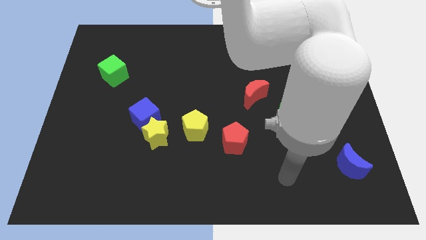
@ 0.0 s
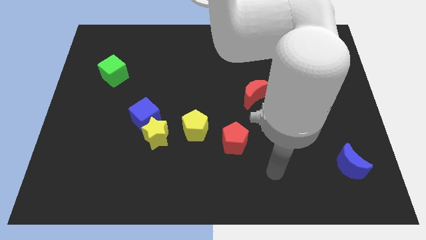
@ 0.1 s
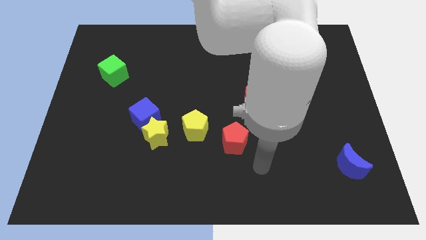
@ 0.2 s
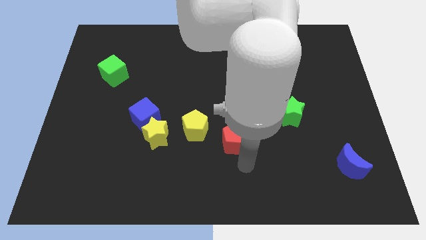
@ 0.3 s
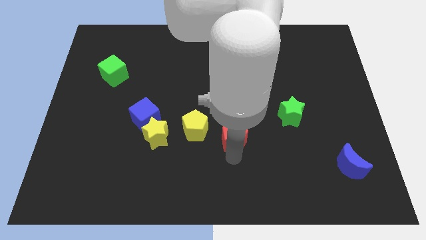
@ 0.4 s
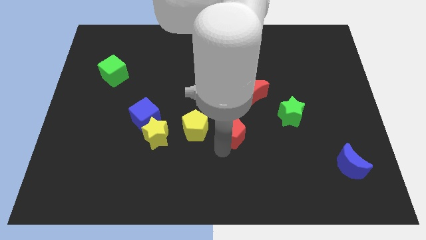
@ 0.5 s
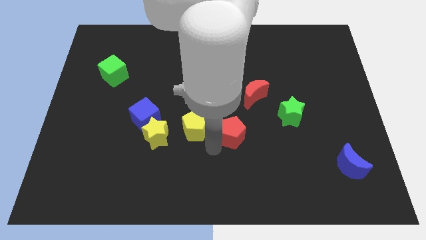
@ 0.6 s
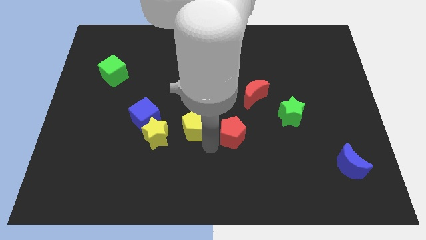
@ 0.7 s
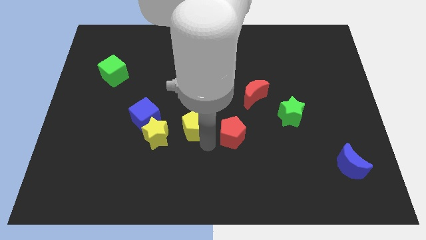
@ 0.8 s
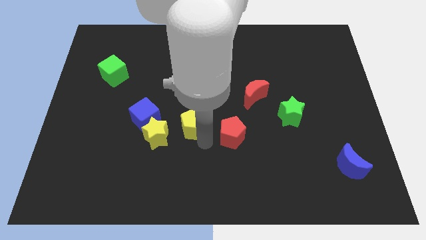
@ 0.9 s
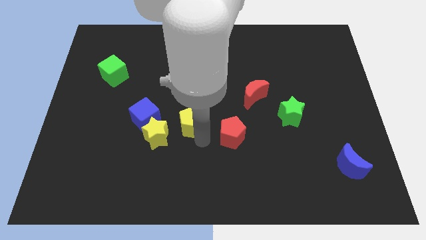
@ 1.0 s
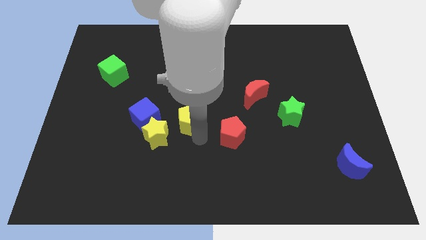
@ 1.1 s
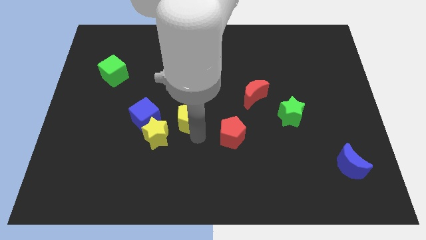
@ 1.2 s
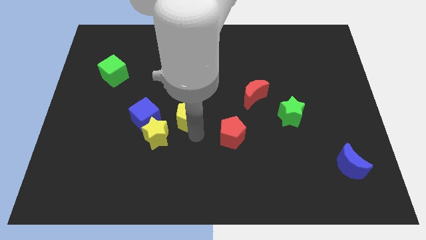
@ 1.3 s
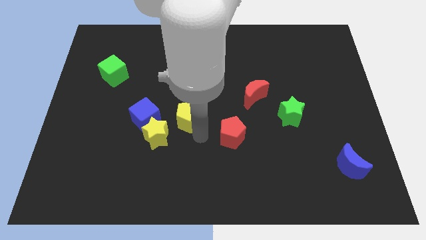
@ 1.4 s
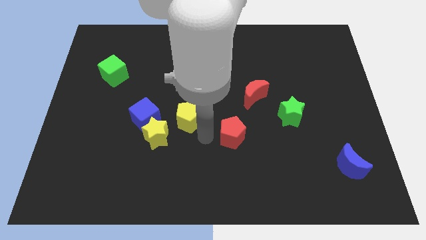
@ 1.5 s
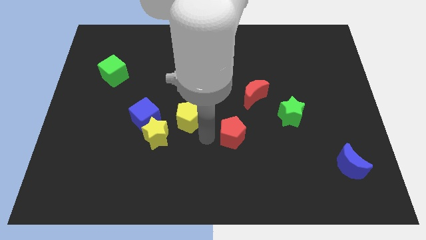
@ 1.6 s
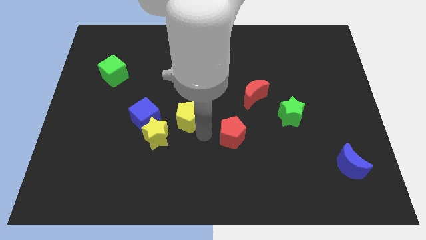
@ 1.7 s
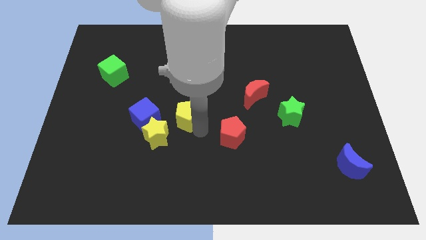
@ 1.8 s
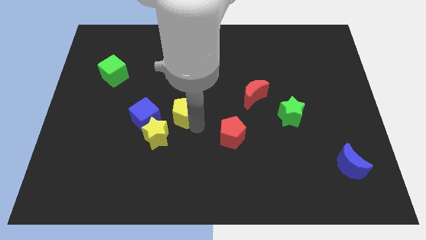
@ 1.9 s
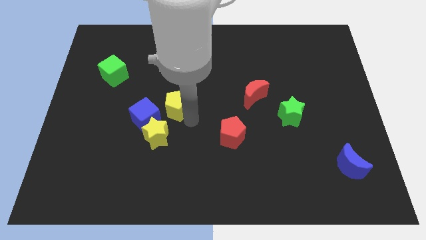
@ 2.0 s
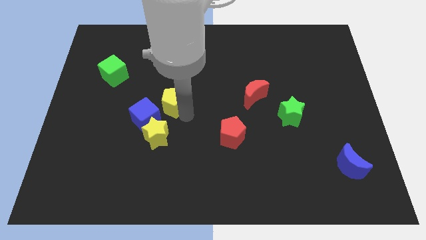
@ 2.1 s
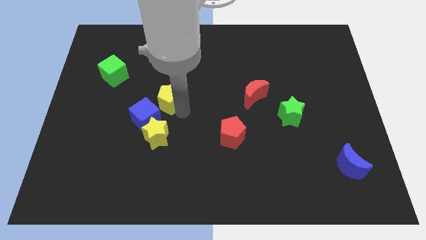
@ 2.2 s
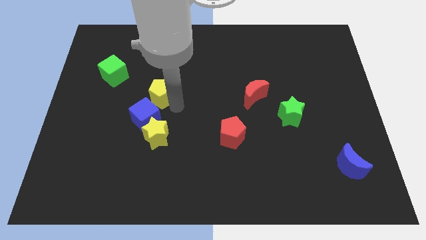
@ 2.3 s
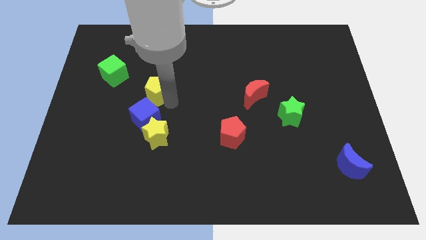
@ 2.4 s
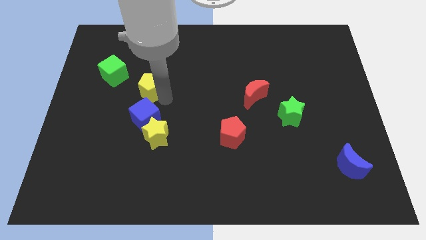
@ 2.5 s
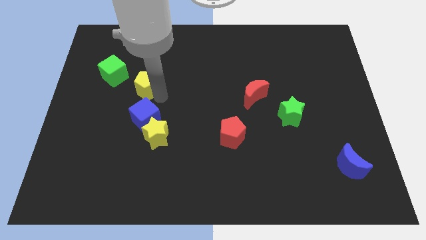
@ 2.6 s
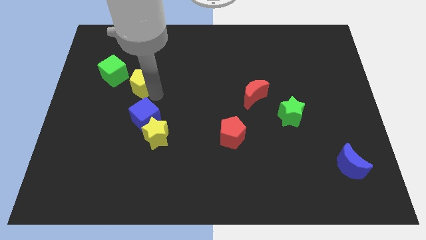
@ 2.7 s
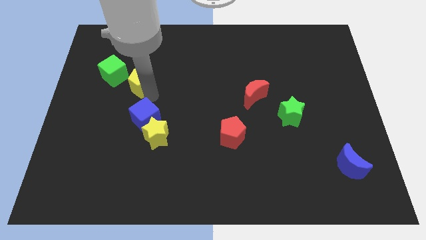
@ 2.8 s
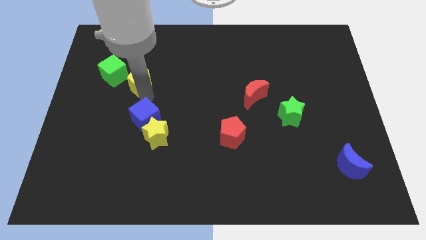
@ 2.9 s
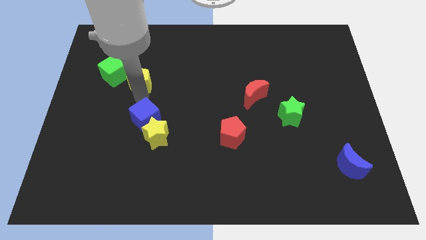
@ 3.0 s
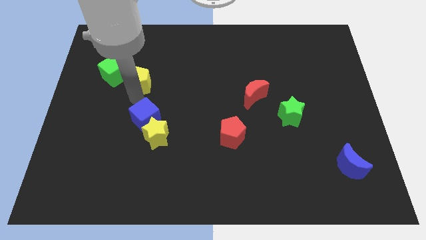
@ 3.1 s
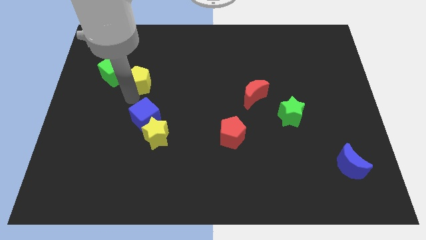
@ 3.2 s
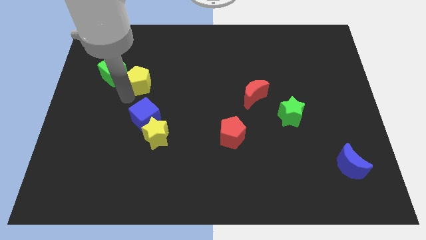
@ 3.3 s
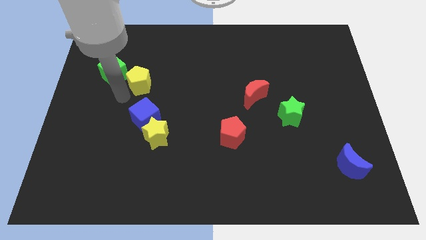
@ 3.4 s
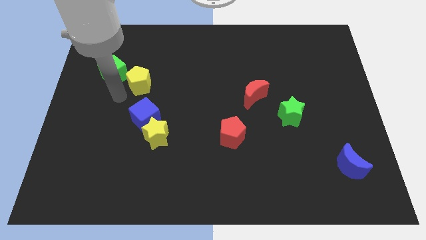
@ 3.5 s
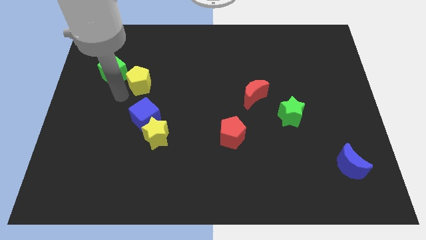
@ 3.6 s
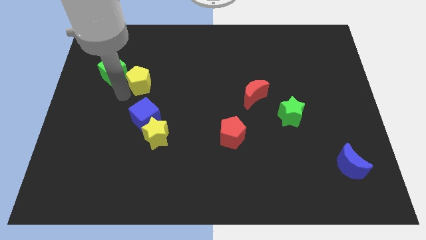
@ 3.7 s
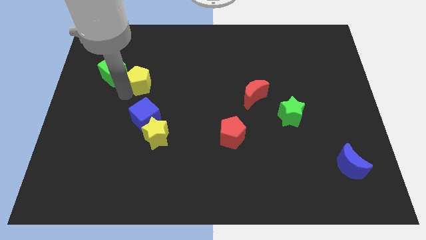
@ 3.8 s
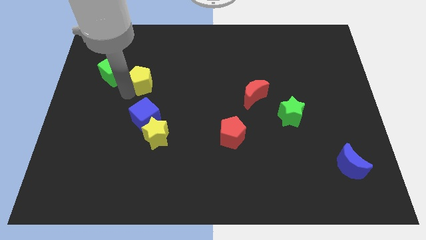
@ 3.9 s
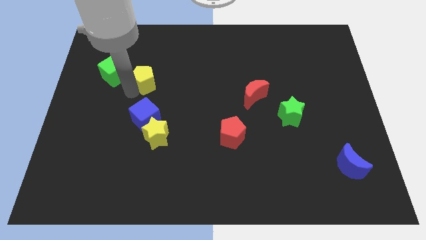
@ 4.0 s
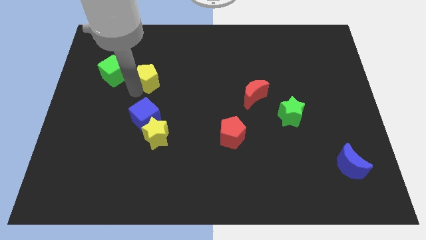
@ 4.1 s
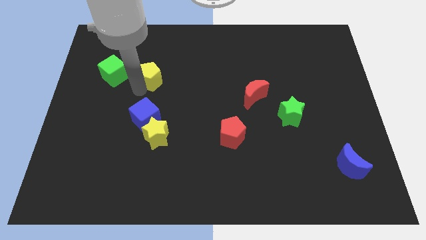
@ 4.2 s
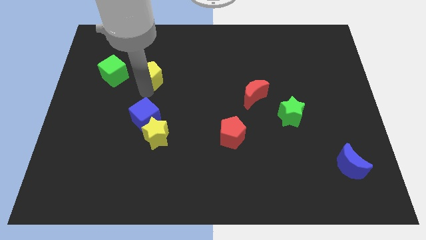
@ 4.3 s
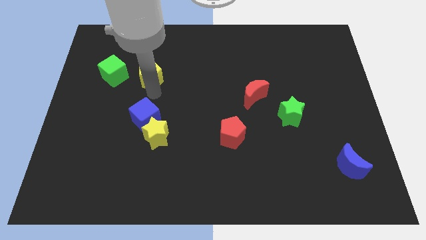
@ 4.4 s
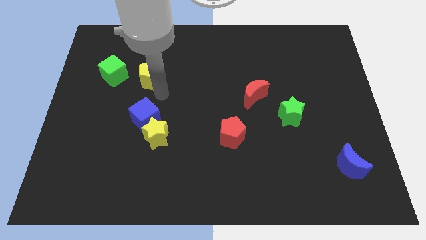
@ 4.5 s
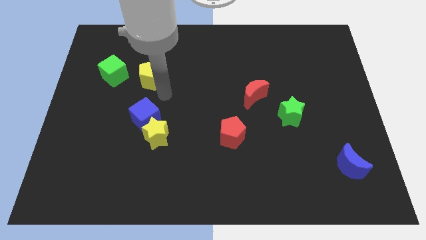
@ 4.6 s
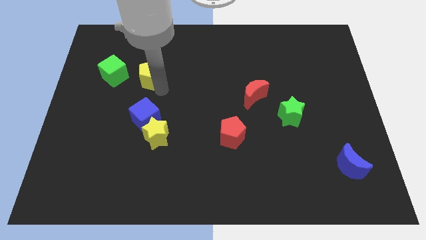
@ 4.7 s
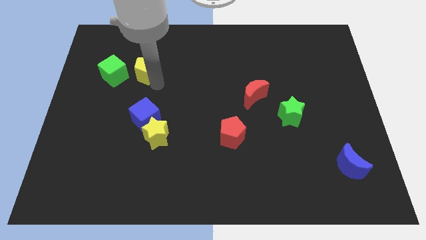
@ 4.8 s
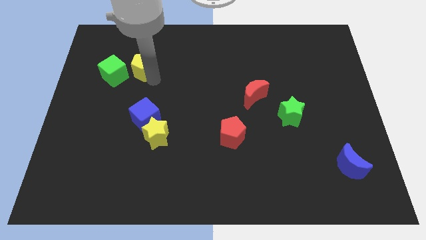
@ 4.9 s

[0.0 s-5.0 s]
move the yellow pentagon diagonally up and to the right of the green cube

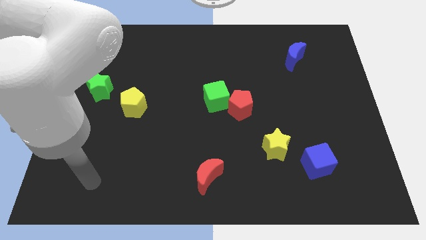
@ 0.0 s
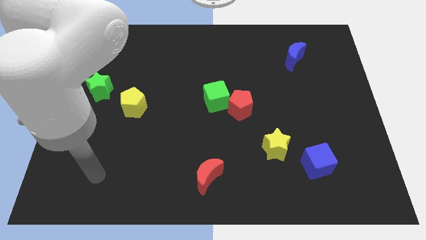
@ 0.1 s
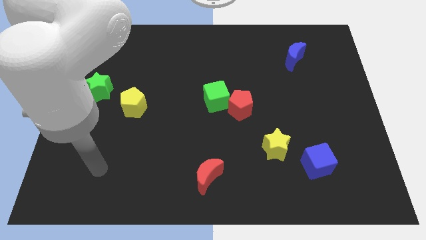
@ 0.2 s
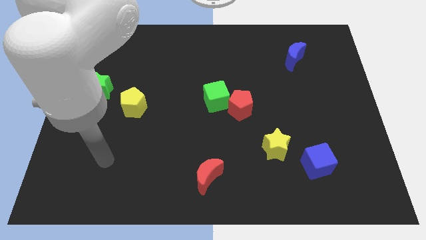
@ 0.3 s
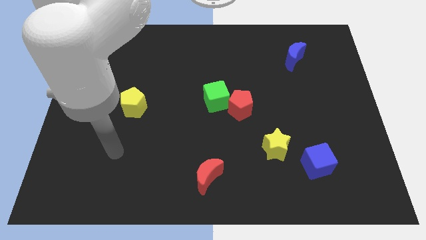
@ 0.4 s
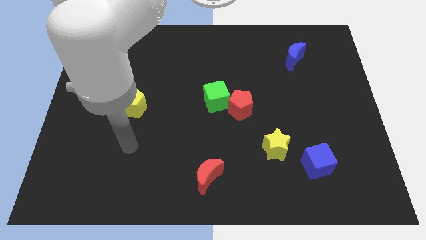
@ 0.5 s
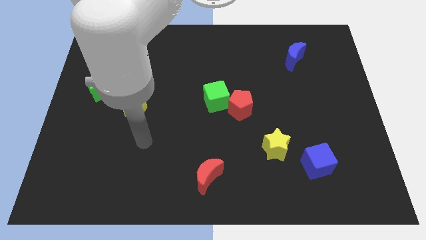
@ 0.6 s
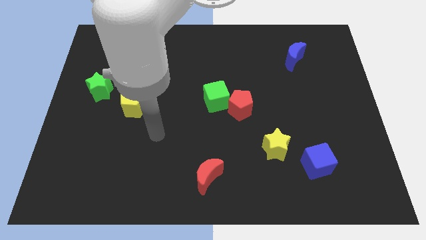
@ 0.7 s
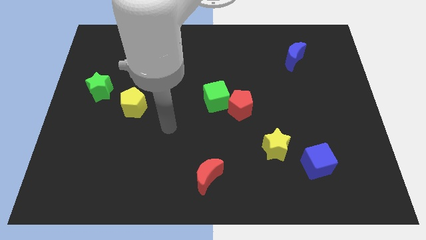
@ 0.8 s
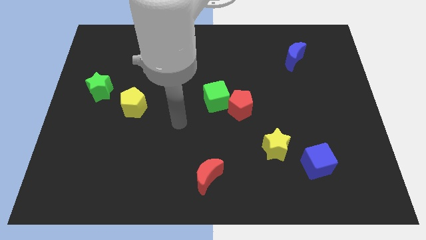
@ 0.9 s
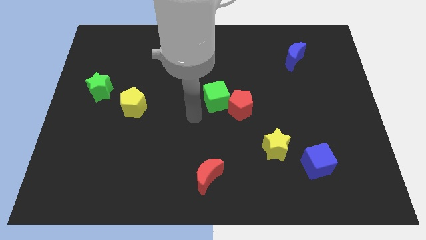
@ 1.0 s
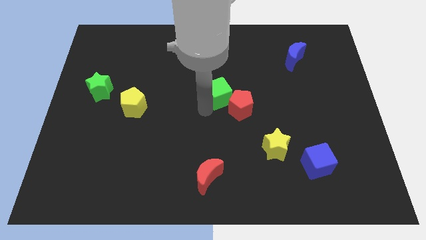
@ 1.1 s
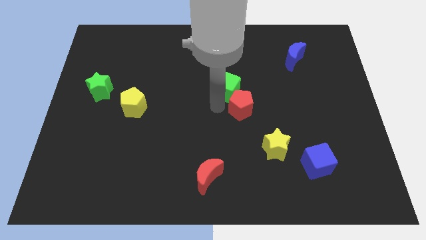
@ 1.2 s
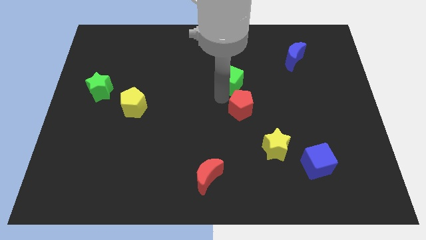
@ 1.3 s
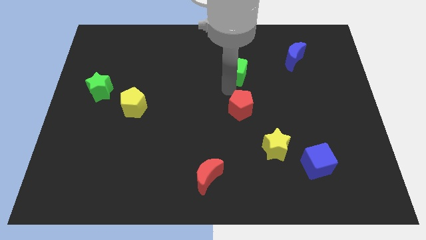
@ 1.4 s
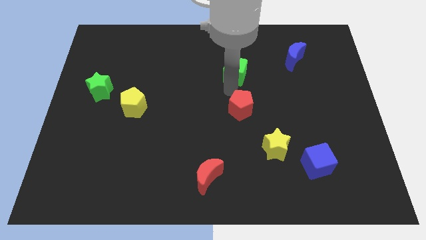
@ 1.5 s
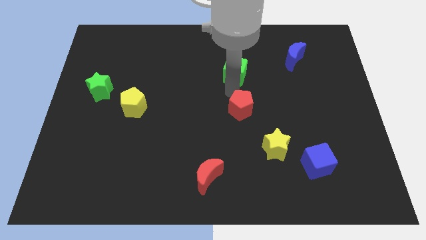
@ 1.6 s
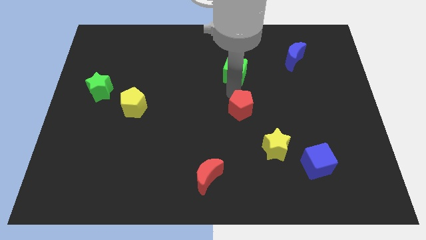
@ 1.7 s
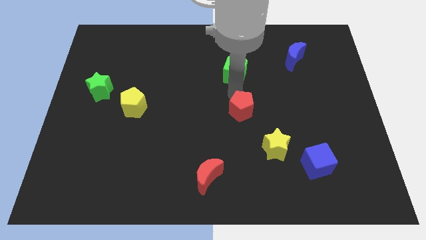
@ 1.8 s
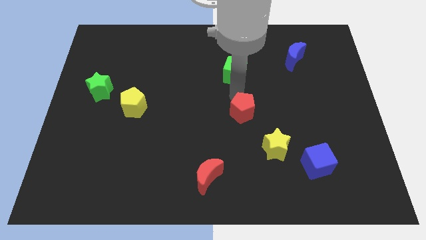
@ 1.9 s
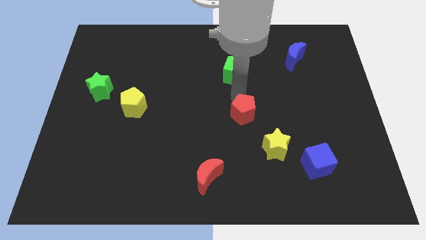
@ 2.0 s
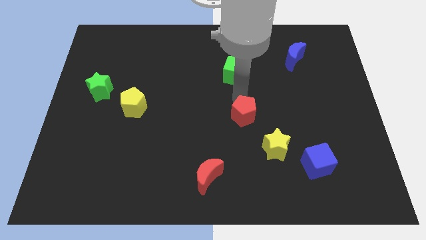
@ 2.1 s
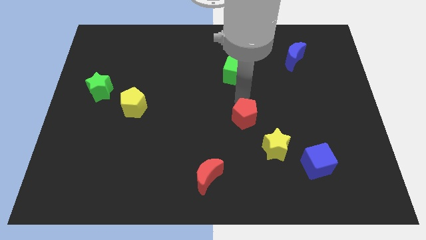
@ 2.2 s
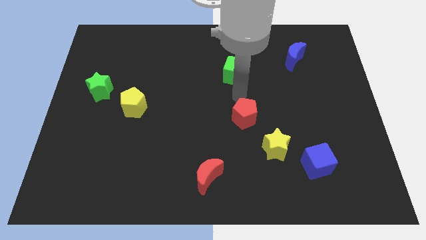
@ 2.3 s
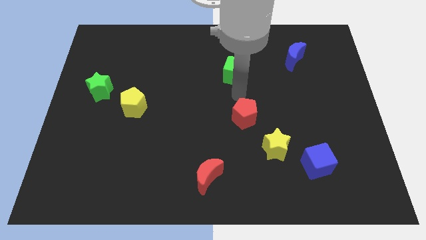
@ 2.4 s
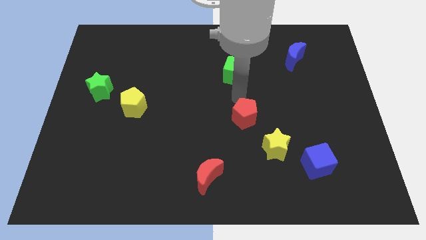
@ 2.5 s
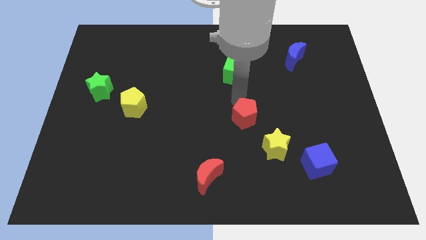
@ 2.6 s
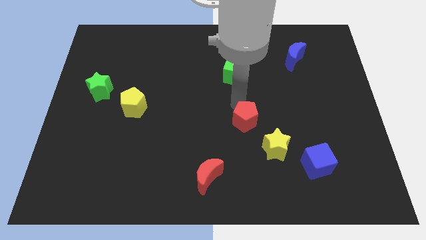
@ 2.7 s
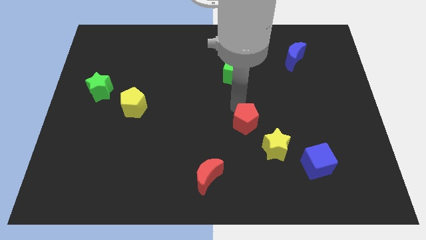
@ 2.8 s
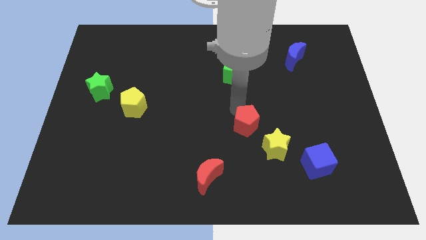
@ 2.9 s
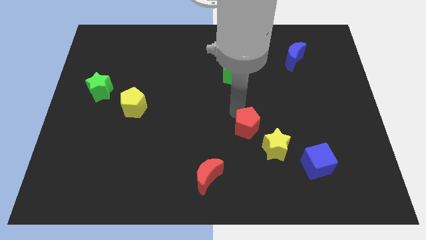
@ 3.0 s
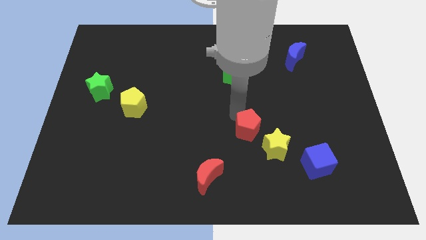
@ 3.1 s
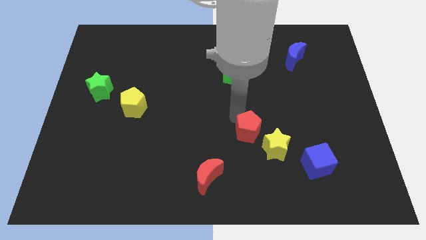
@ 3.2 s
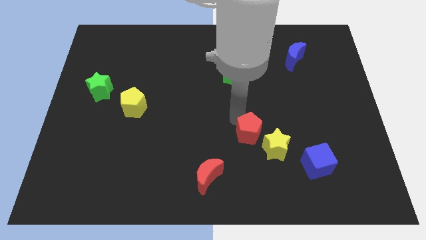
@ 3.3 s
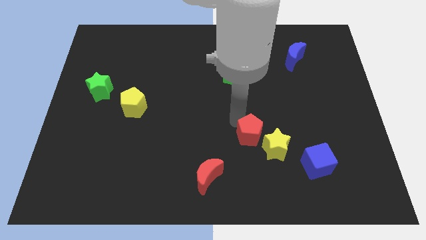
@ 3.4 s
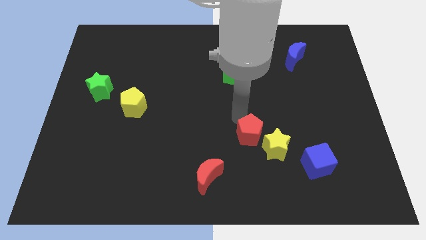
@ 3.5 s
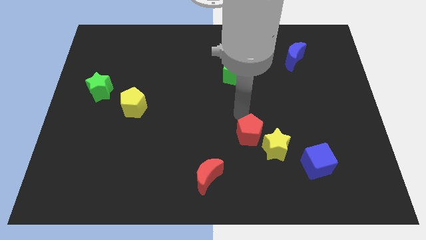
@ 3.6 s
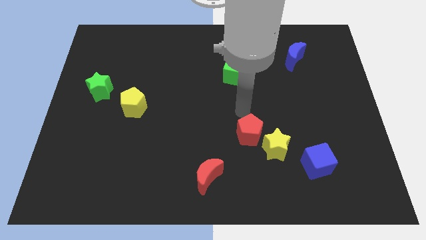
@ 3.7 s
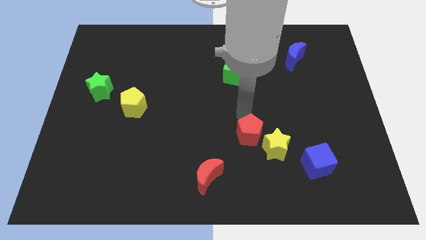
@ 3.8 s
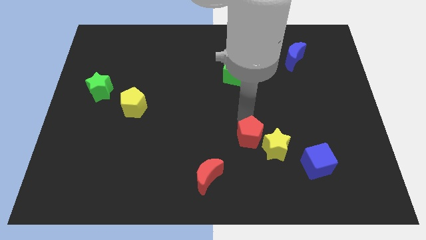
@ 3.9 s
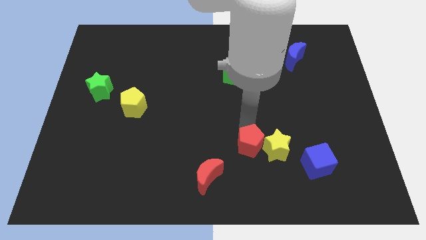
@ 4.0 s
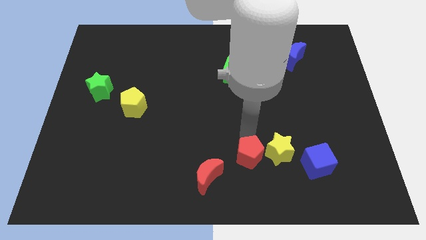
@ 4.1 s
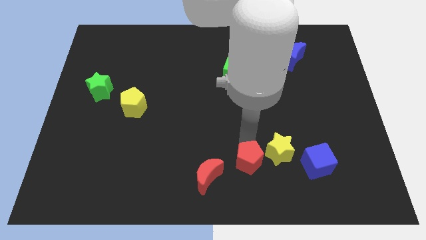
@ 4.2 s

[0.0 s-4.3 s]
move the red pentagon right of the red moon
